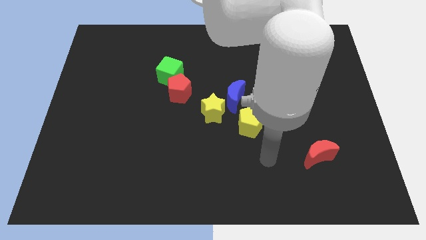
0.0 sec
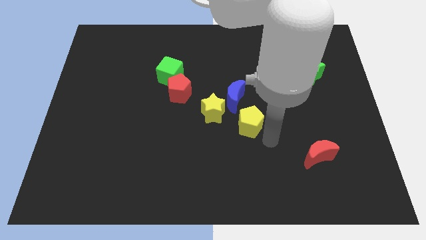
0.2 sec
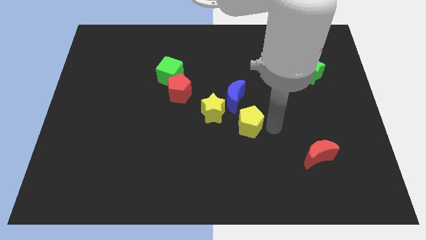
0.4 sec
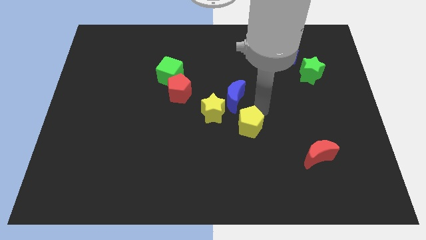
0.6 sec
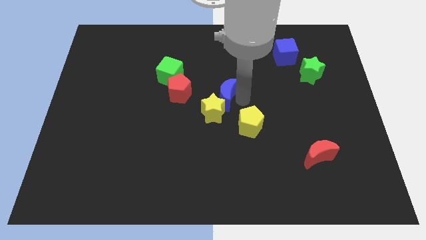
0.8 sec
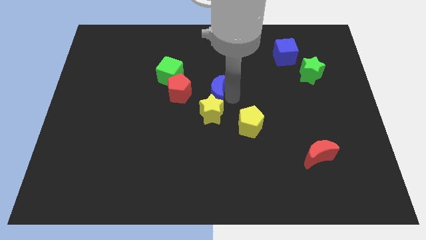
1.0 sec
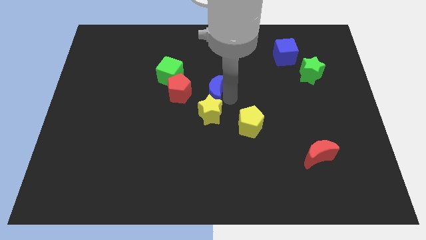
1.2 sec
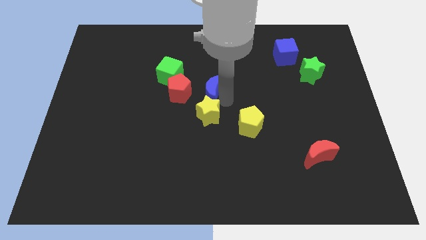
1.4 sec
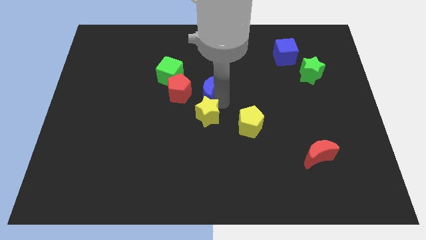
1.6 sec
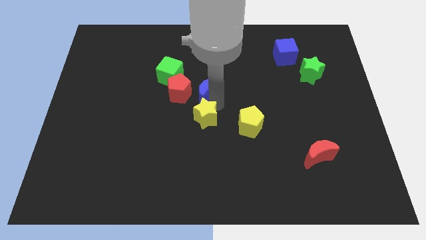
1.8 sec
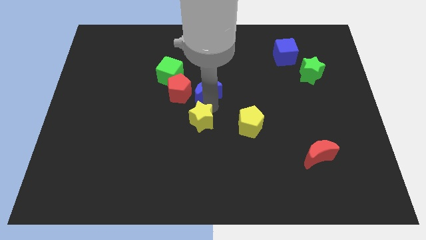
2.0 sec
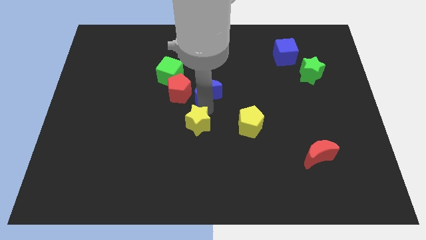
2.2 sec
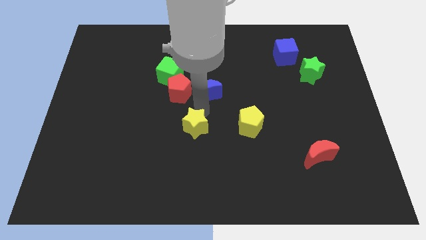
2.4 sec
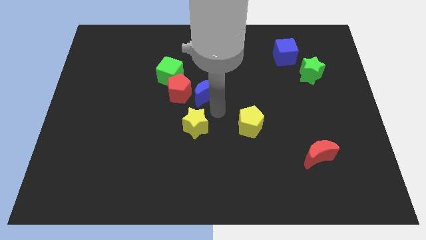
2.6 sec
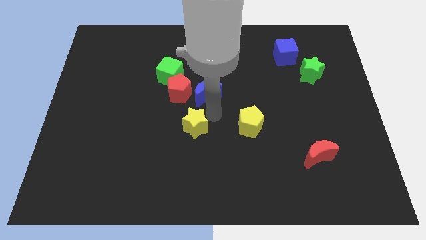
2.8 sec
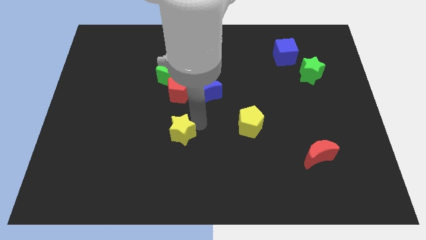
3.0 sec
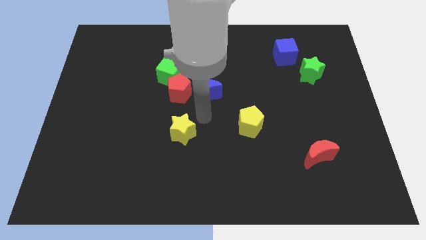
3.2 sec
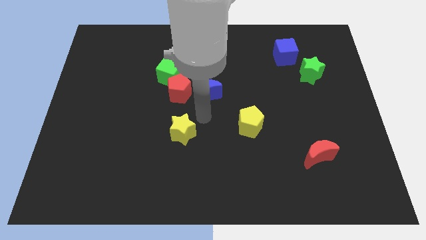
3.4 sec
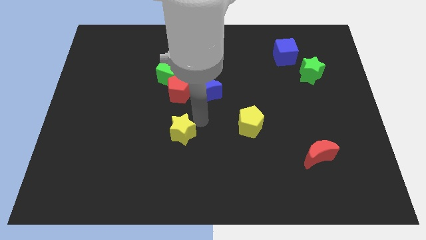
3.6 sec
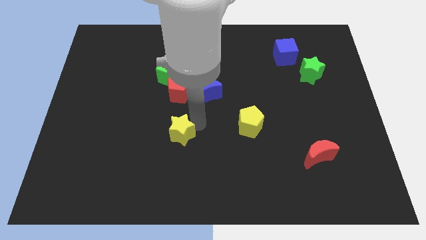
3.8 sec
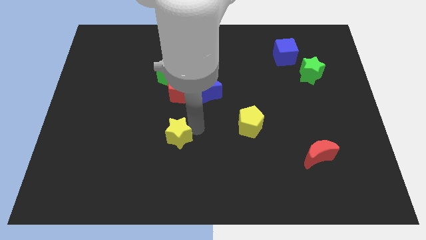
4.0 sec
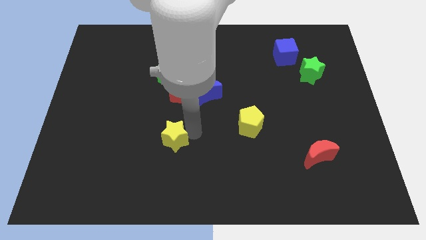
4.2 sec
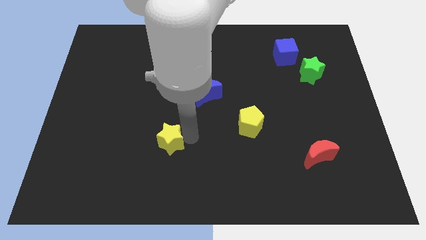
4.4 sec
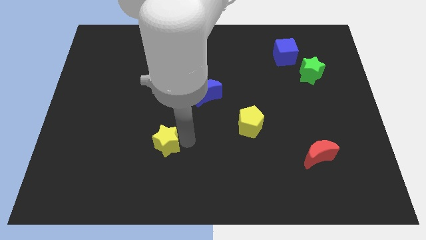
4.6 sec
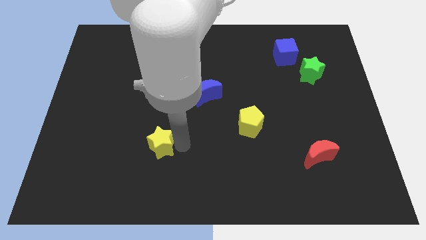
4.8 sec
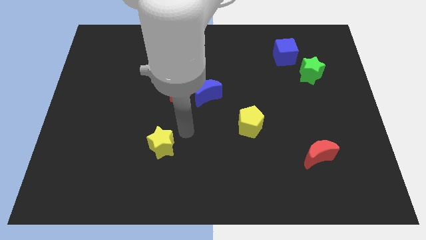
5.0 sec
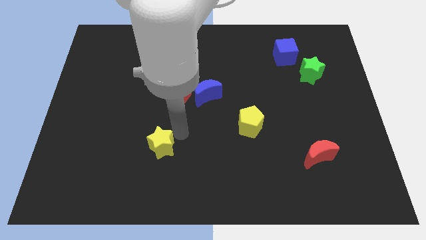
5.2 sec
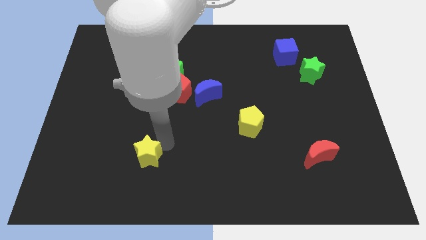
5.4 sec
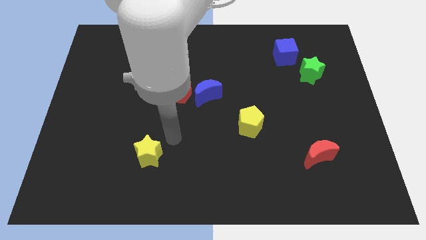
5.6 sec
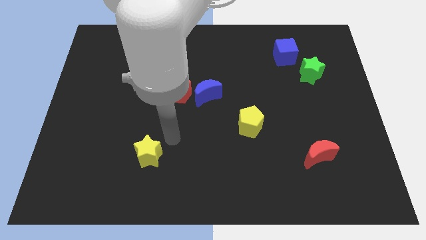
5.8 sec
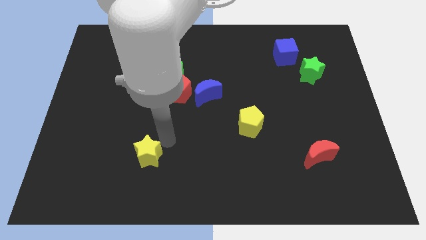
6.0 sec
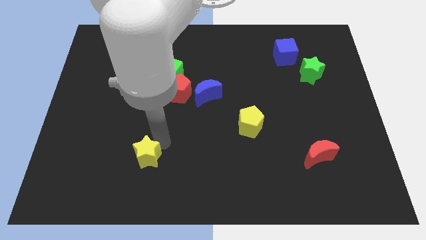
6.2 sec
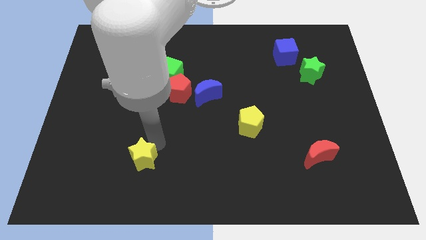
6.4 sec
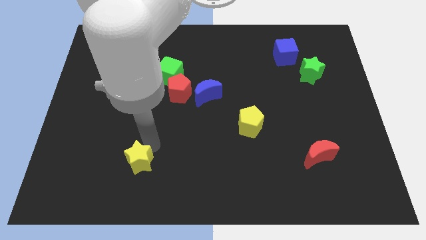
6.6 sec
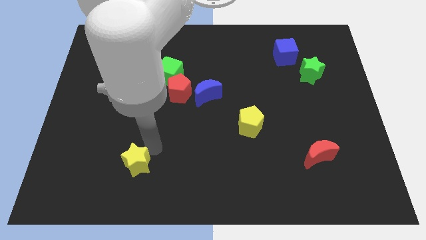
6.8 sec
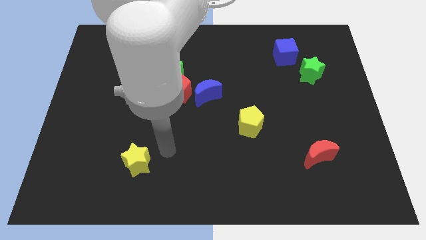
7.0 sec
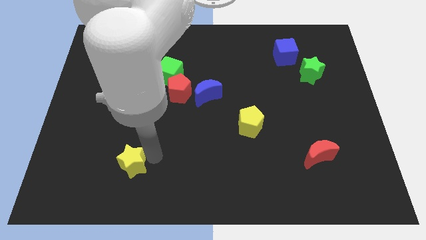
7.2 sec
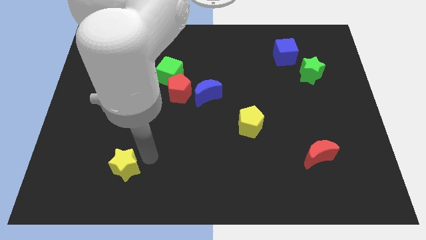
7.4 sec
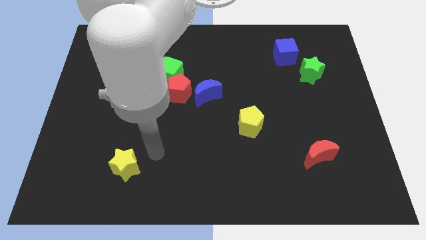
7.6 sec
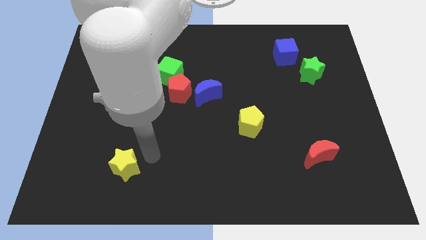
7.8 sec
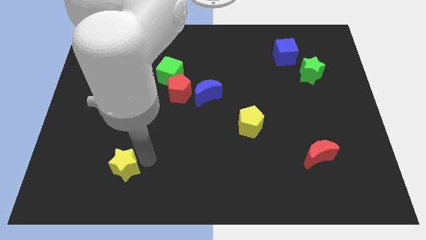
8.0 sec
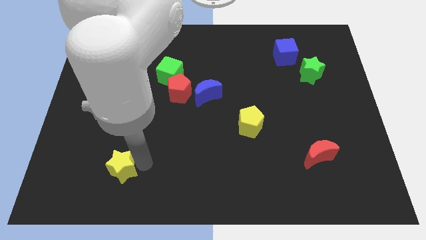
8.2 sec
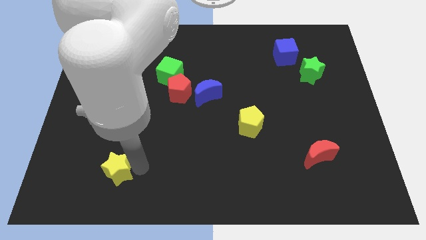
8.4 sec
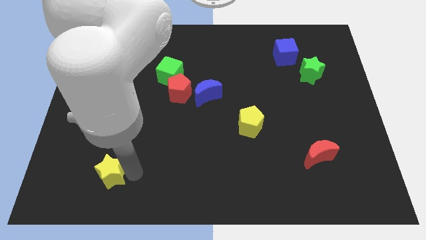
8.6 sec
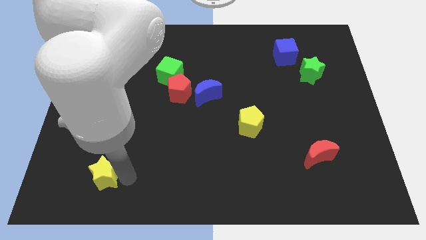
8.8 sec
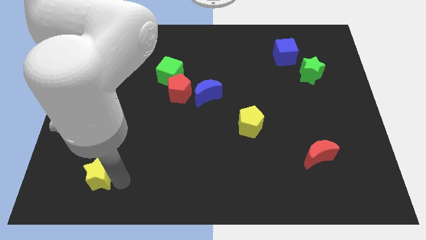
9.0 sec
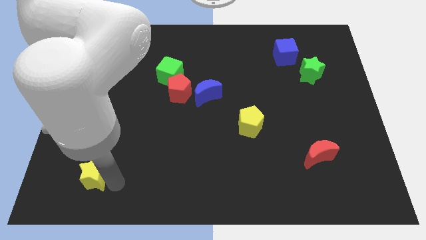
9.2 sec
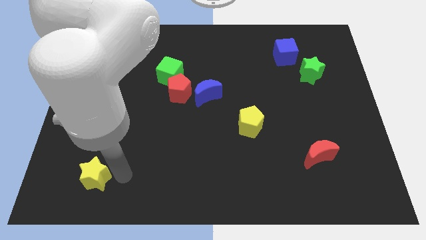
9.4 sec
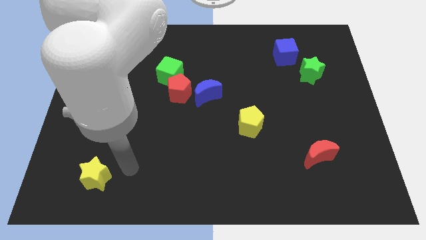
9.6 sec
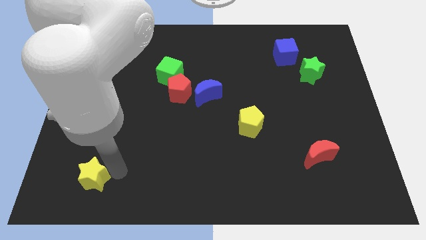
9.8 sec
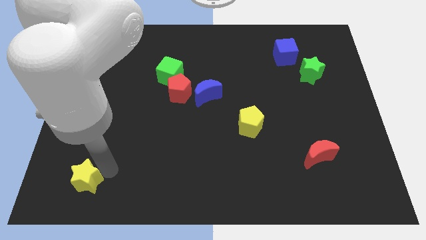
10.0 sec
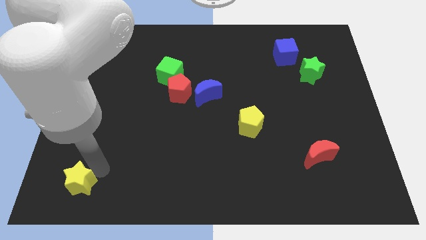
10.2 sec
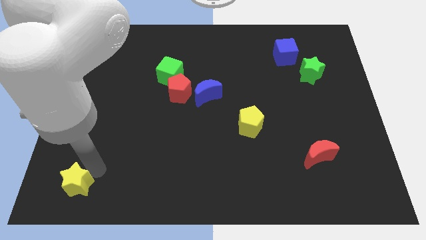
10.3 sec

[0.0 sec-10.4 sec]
put the yellow star to the bottom left of the board
